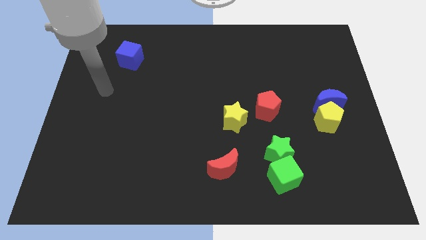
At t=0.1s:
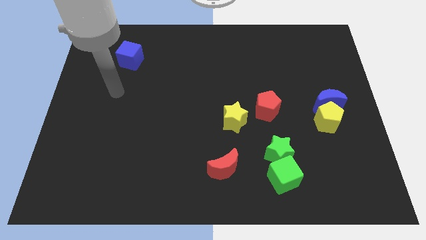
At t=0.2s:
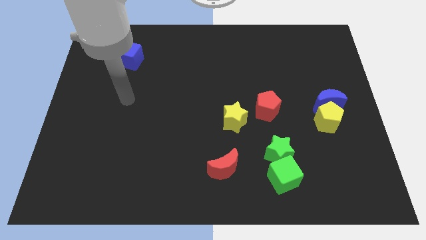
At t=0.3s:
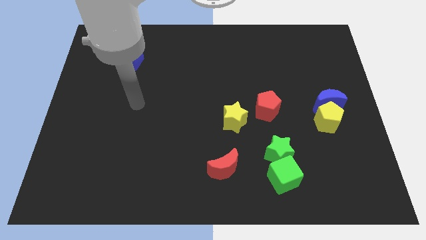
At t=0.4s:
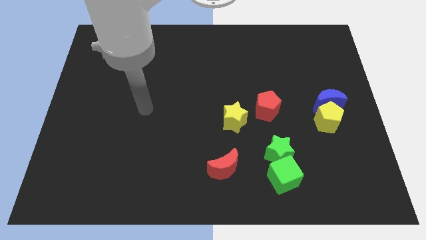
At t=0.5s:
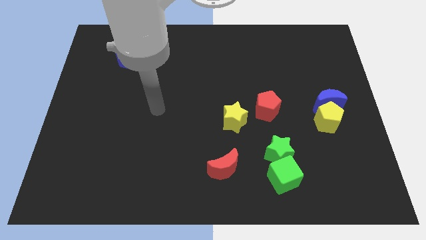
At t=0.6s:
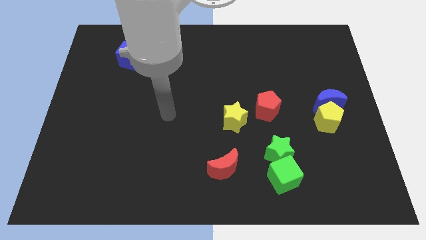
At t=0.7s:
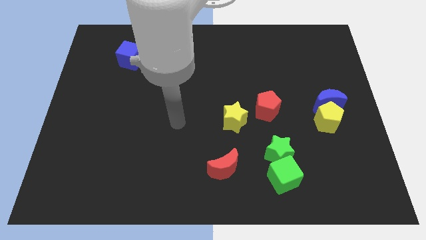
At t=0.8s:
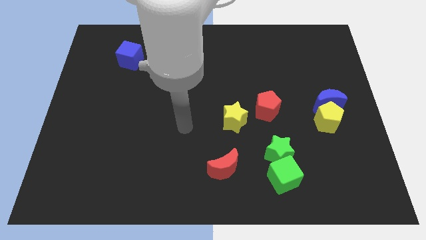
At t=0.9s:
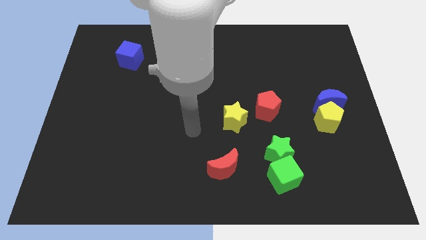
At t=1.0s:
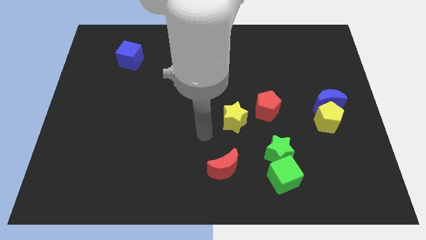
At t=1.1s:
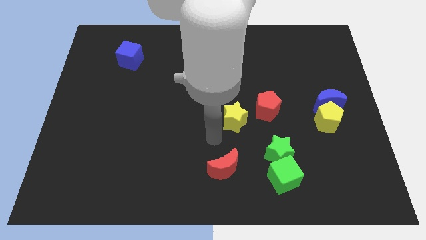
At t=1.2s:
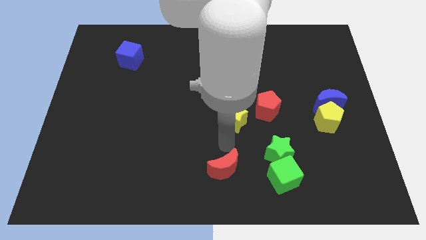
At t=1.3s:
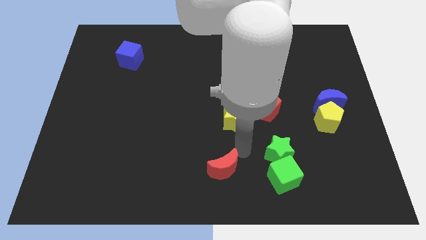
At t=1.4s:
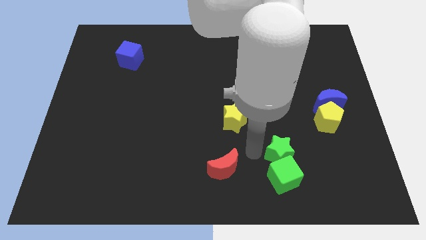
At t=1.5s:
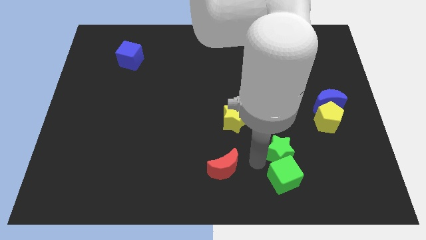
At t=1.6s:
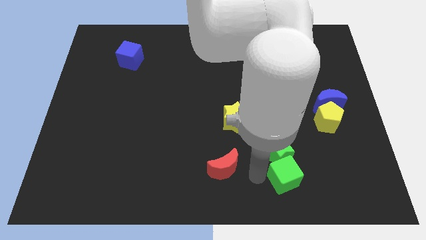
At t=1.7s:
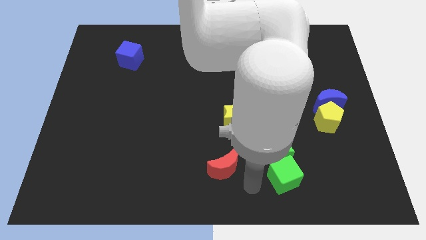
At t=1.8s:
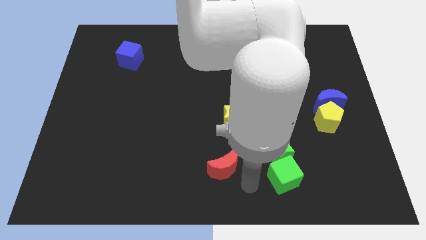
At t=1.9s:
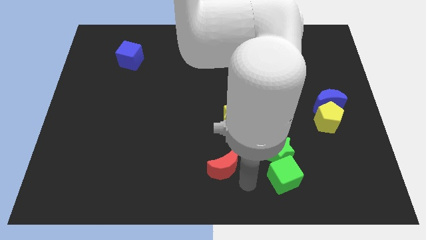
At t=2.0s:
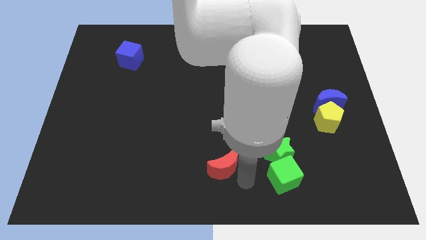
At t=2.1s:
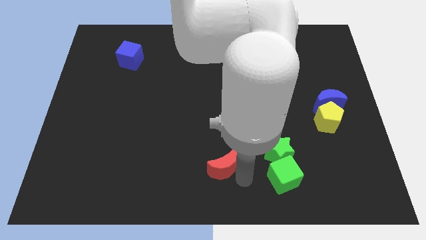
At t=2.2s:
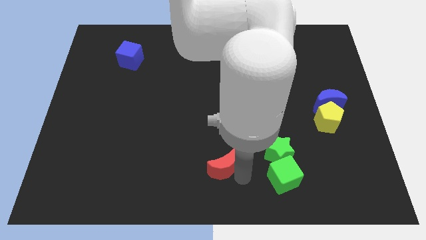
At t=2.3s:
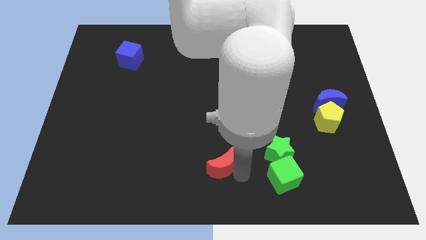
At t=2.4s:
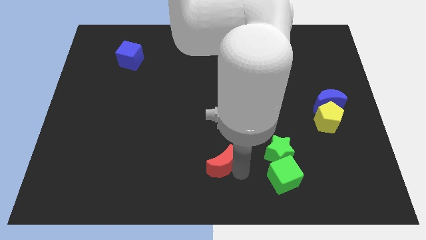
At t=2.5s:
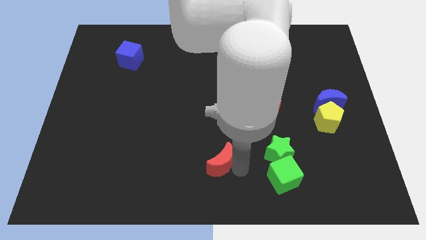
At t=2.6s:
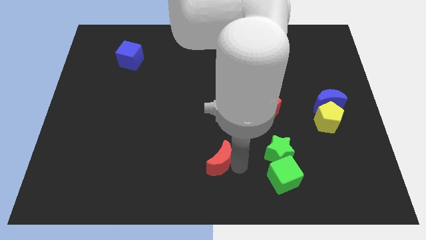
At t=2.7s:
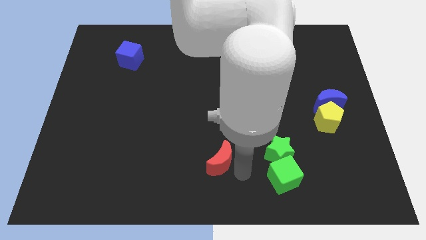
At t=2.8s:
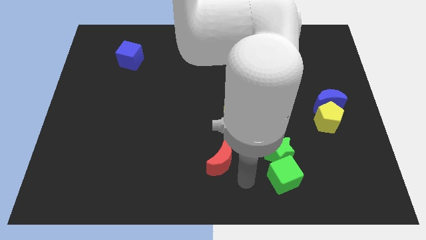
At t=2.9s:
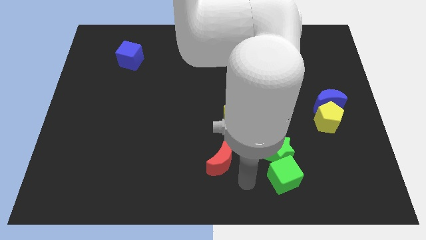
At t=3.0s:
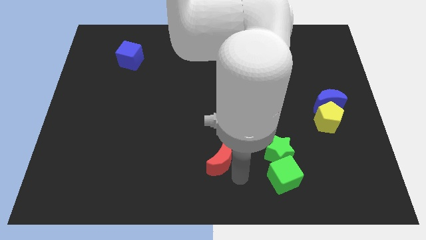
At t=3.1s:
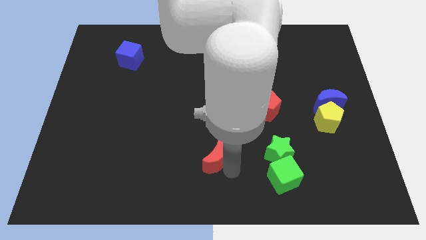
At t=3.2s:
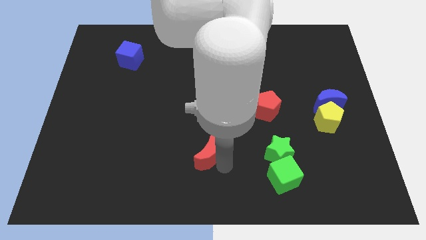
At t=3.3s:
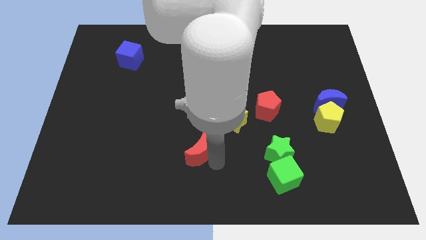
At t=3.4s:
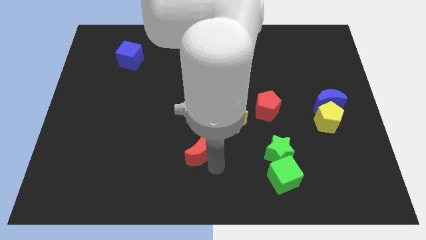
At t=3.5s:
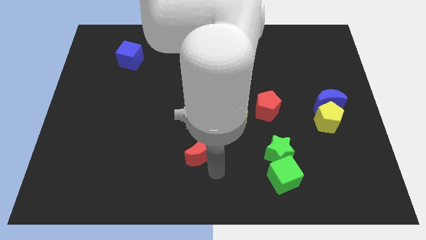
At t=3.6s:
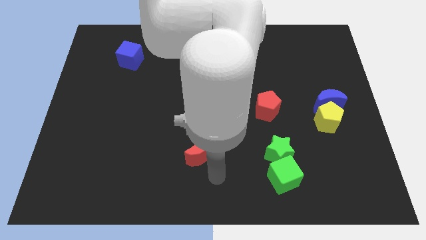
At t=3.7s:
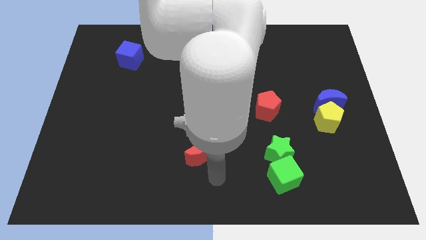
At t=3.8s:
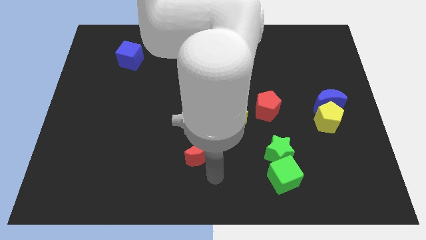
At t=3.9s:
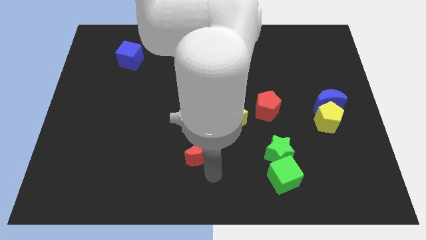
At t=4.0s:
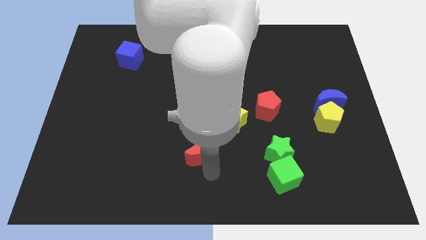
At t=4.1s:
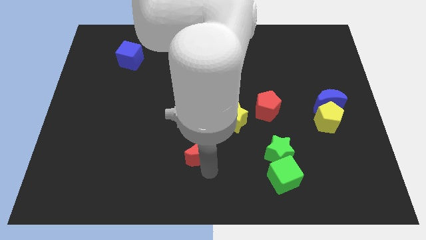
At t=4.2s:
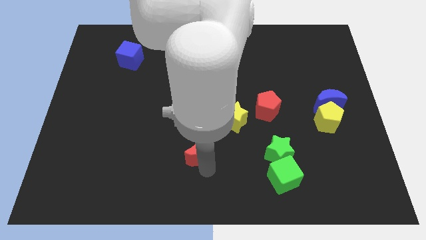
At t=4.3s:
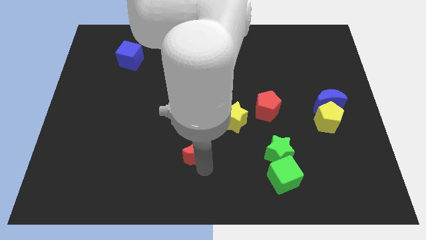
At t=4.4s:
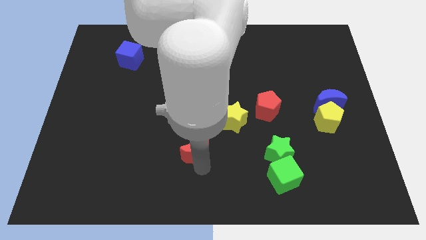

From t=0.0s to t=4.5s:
slide the red moon slightly up and then to the left

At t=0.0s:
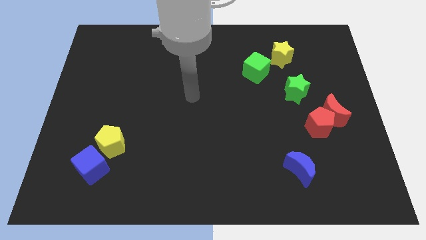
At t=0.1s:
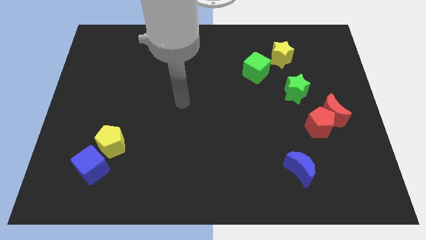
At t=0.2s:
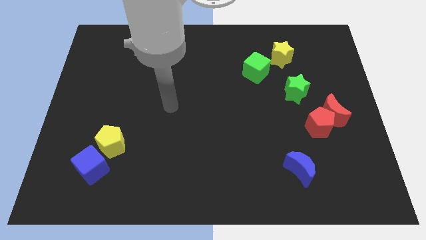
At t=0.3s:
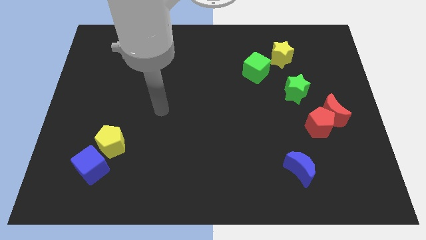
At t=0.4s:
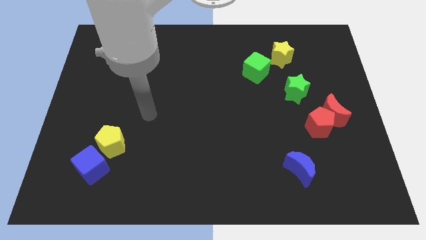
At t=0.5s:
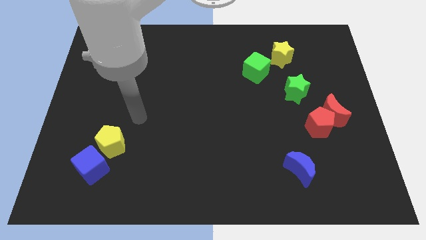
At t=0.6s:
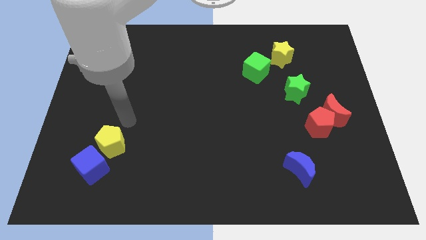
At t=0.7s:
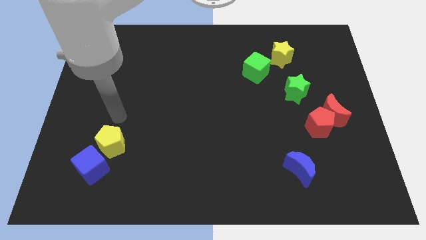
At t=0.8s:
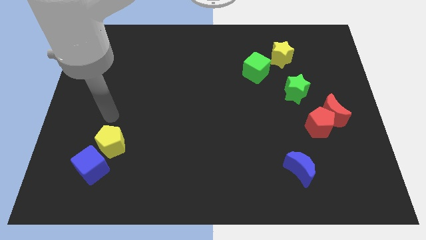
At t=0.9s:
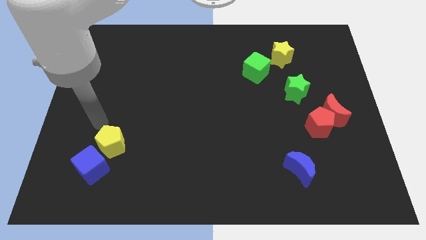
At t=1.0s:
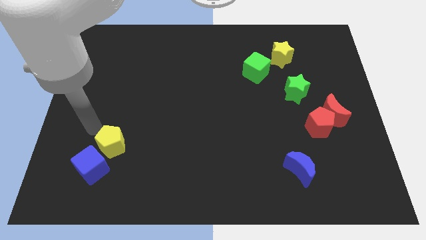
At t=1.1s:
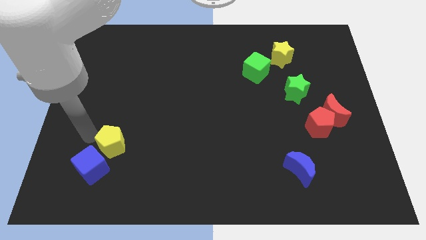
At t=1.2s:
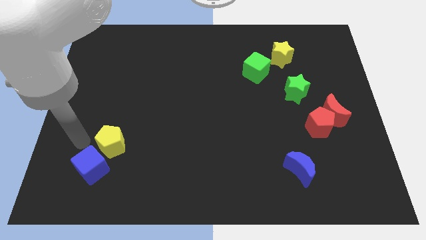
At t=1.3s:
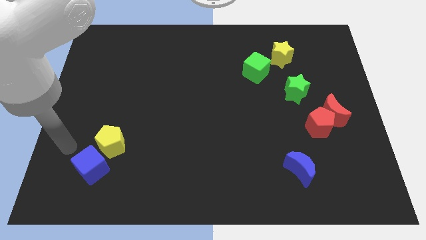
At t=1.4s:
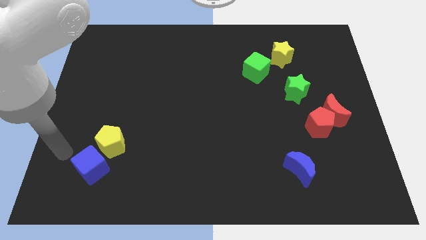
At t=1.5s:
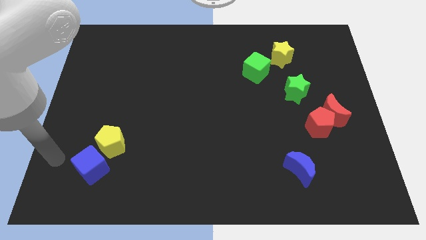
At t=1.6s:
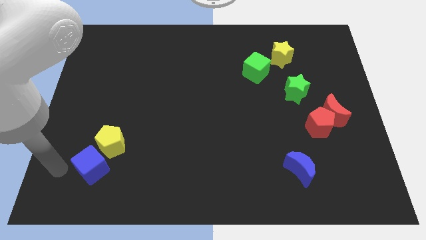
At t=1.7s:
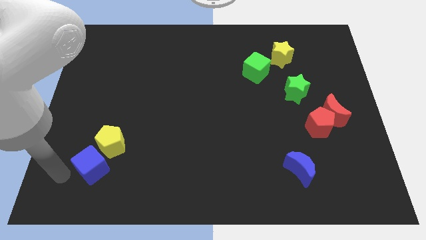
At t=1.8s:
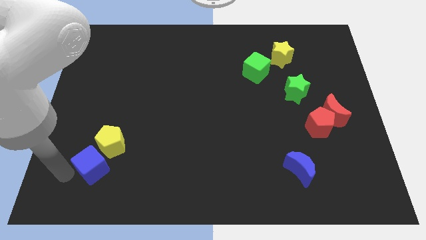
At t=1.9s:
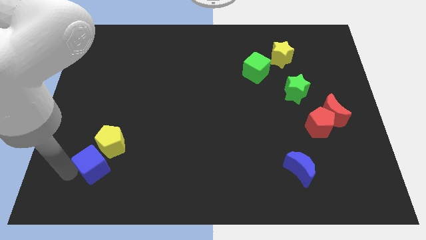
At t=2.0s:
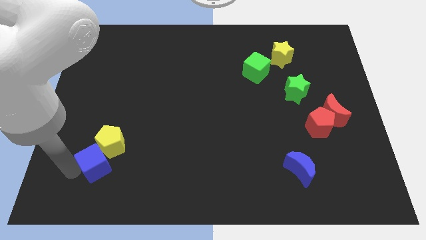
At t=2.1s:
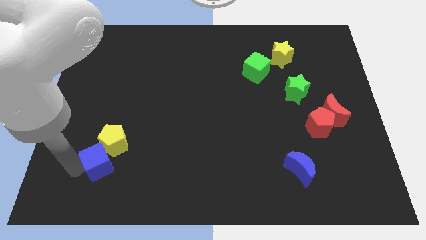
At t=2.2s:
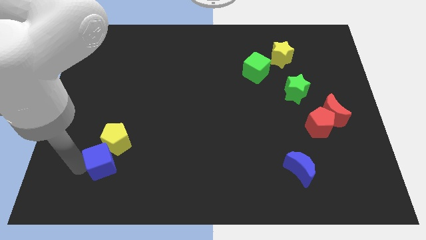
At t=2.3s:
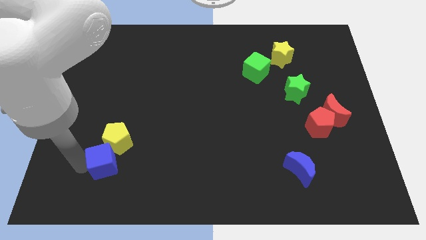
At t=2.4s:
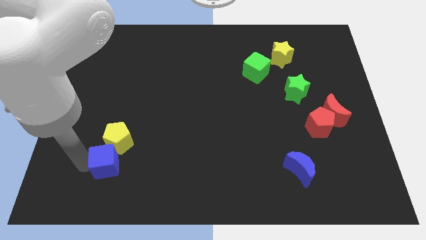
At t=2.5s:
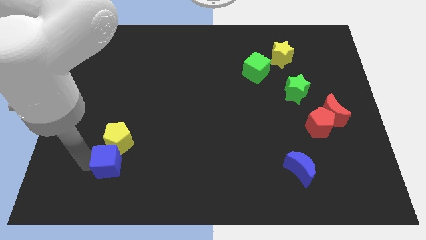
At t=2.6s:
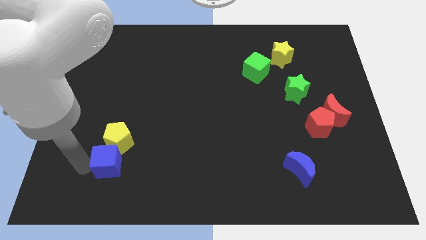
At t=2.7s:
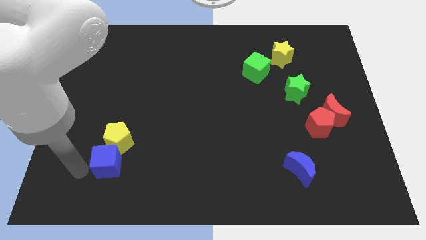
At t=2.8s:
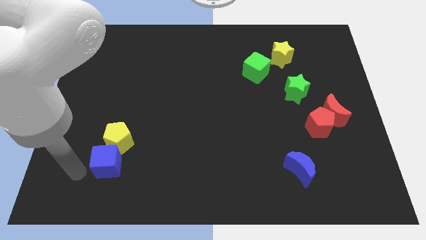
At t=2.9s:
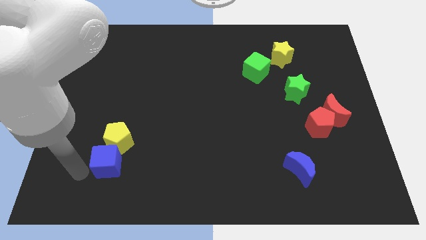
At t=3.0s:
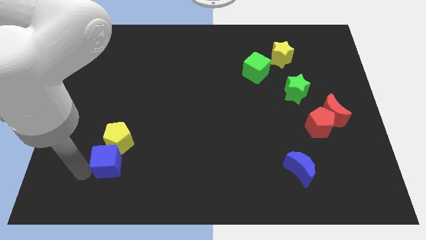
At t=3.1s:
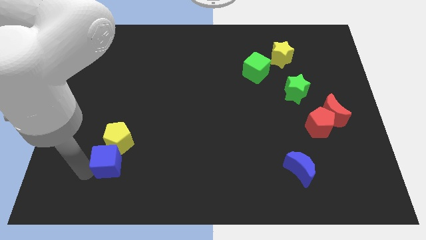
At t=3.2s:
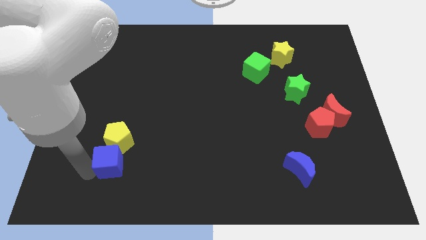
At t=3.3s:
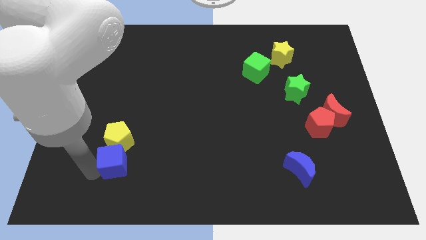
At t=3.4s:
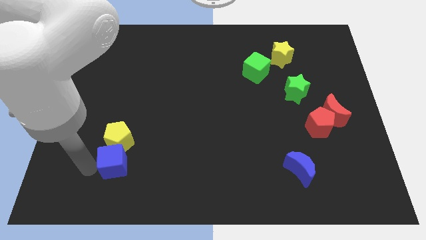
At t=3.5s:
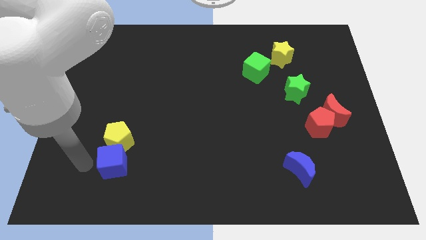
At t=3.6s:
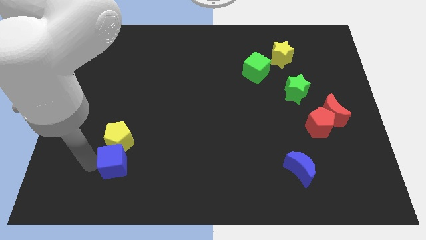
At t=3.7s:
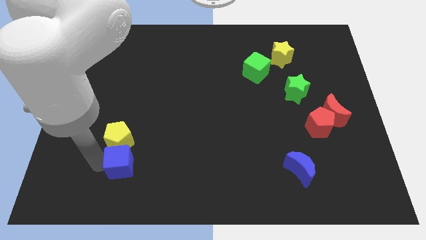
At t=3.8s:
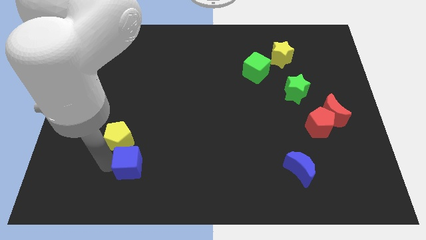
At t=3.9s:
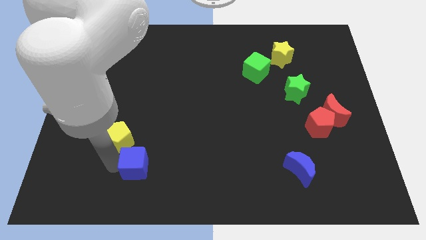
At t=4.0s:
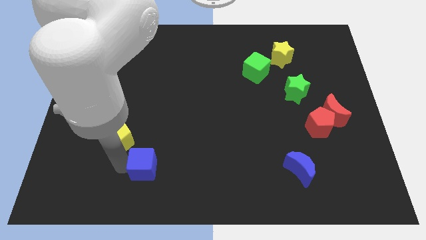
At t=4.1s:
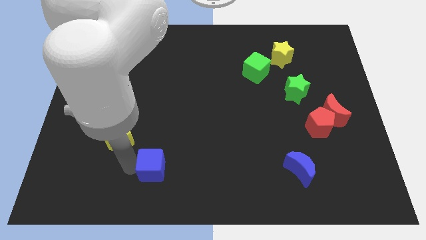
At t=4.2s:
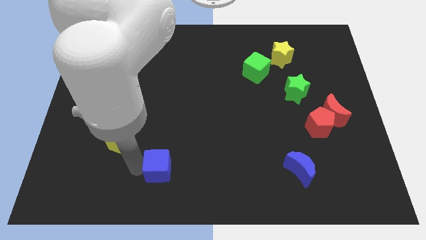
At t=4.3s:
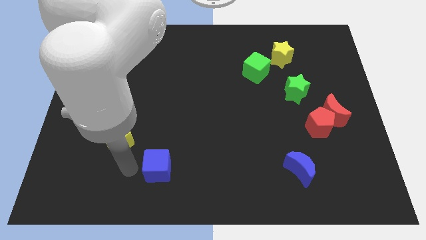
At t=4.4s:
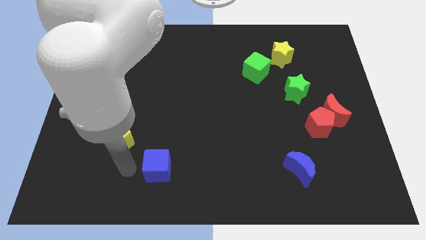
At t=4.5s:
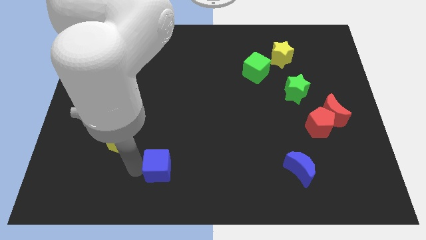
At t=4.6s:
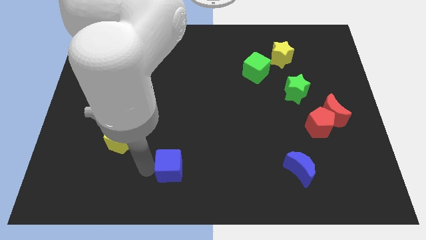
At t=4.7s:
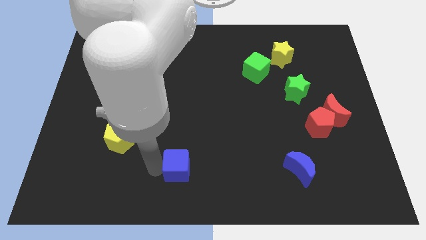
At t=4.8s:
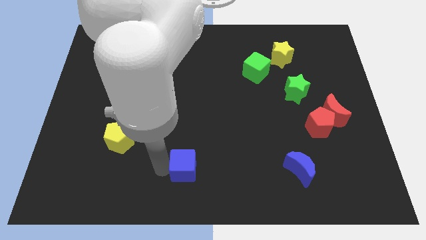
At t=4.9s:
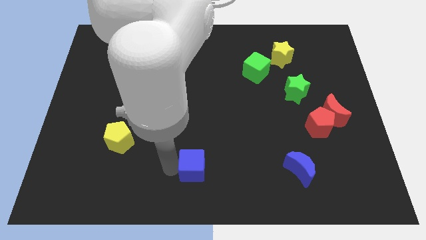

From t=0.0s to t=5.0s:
slide the blue cube right
